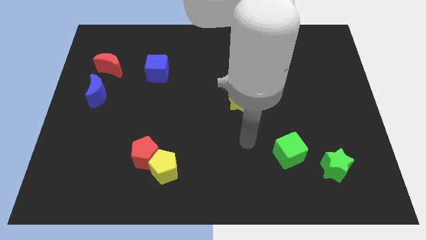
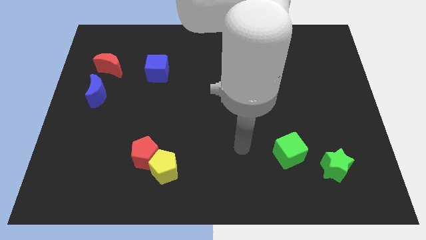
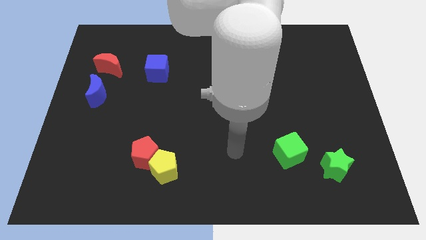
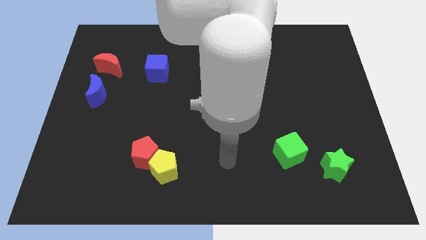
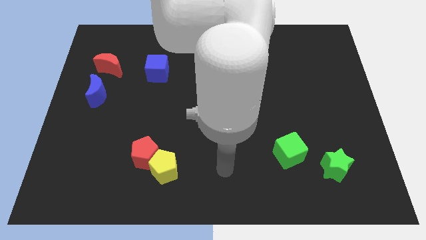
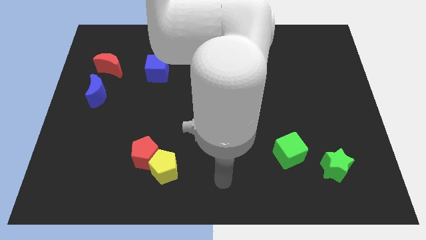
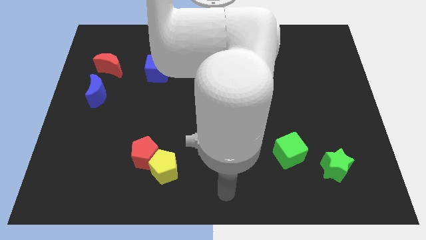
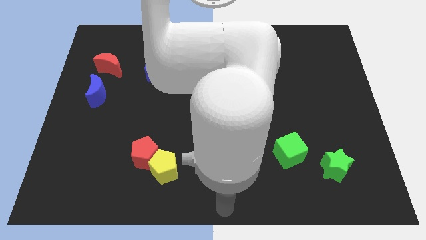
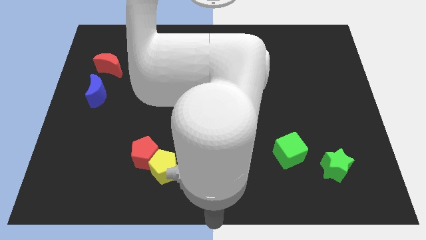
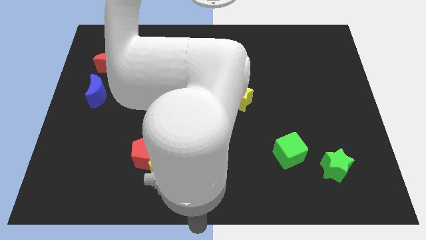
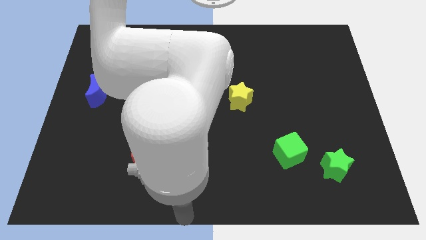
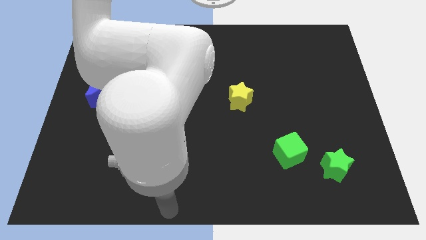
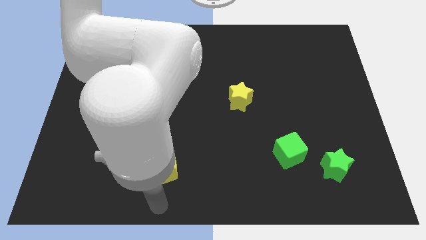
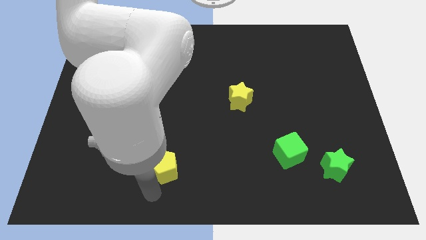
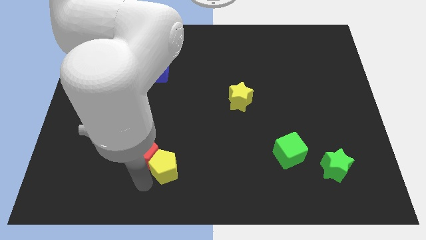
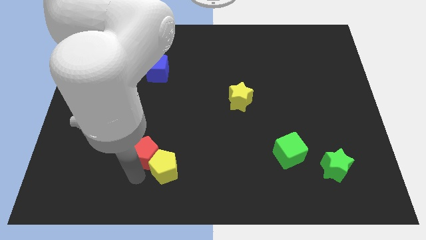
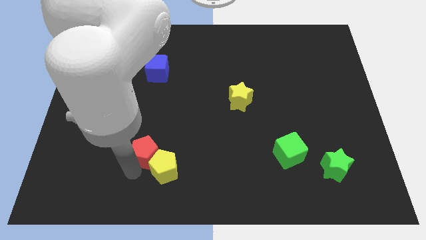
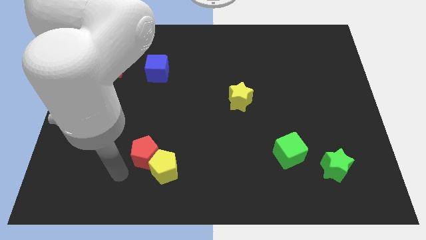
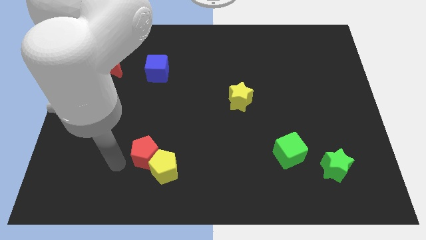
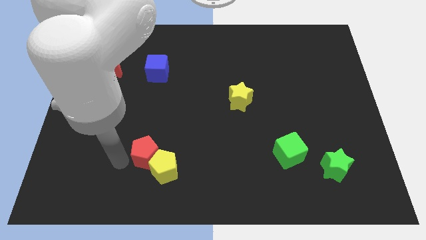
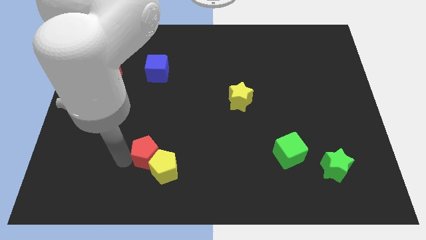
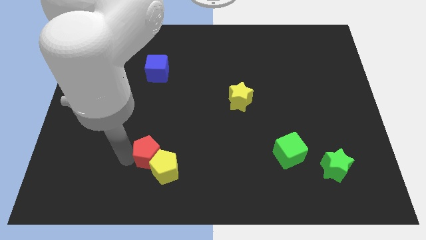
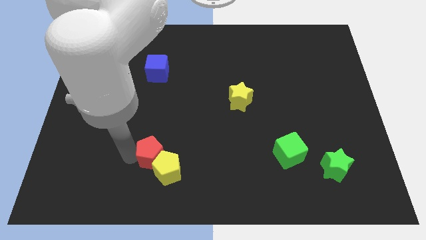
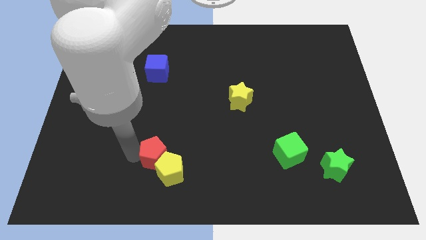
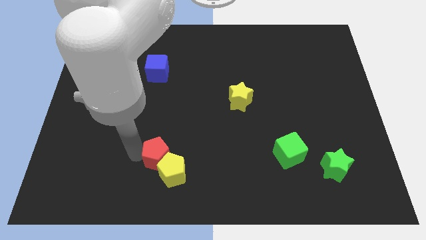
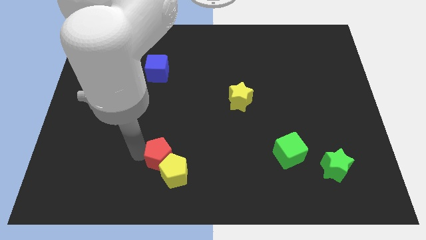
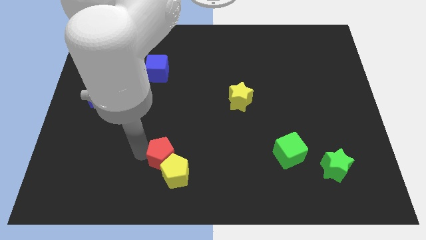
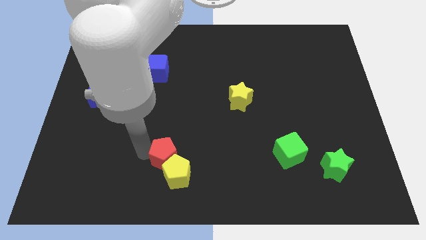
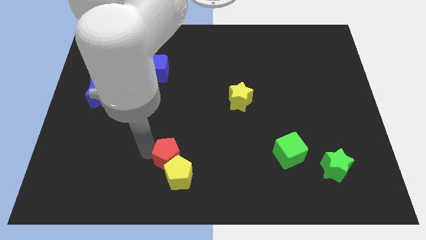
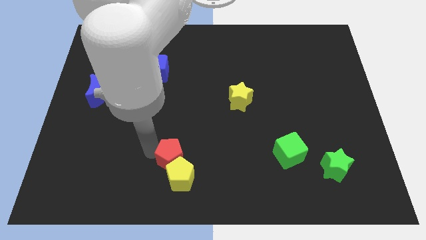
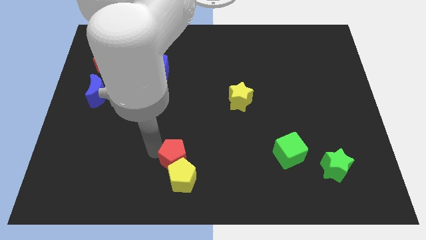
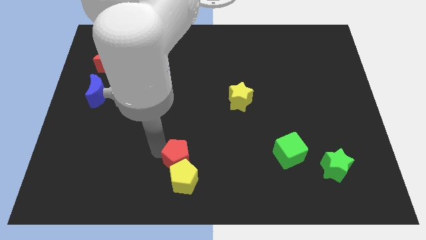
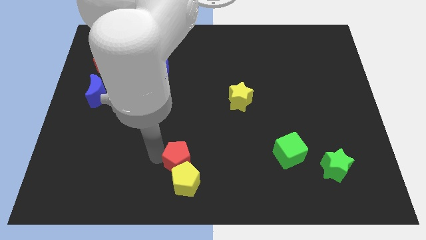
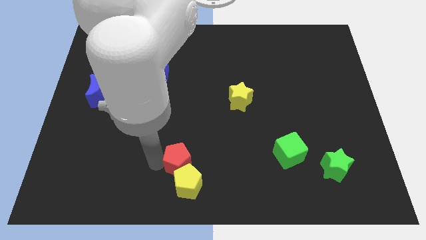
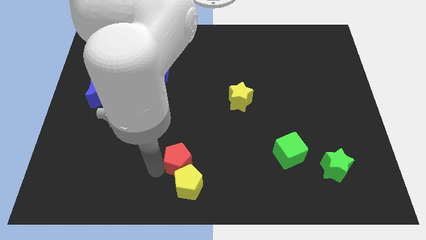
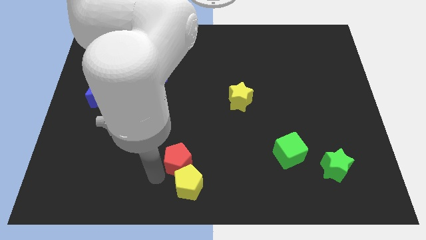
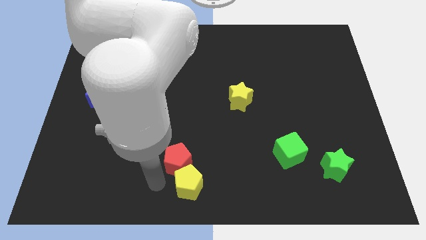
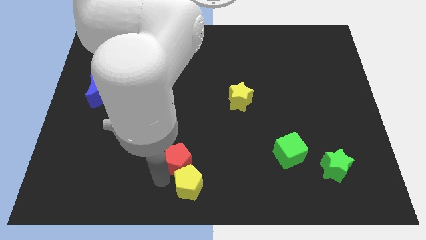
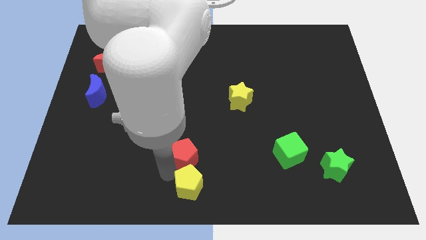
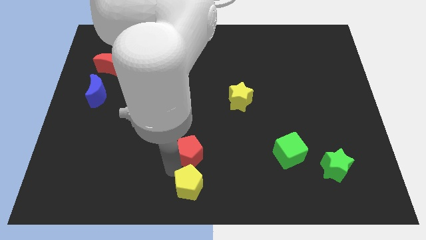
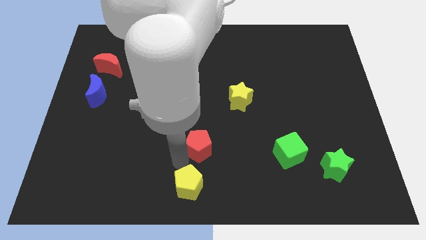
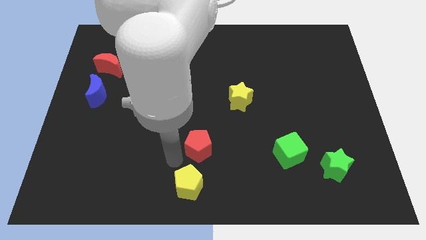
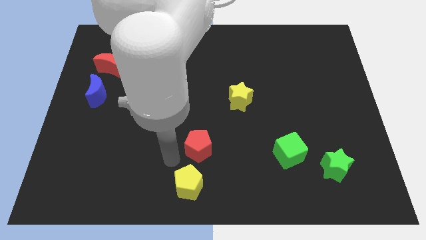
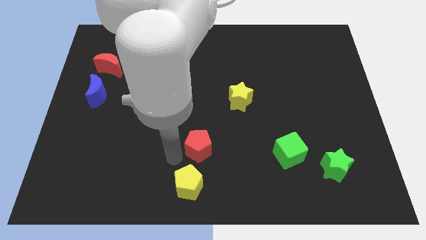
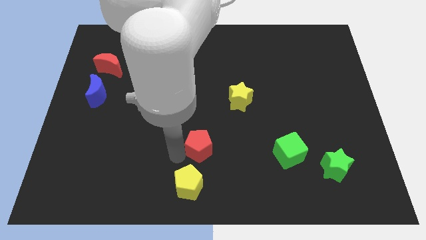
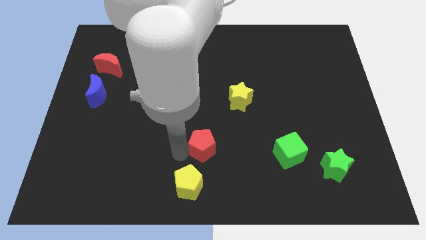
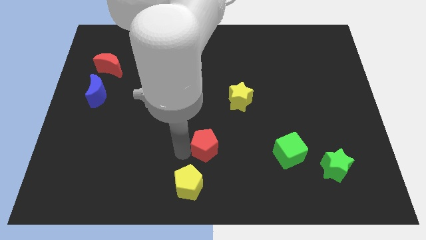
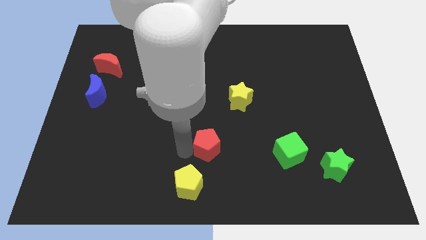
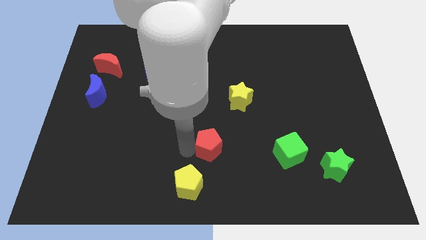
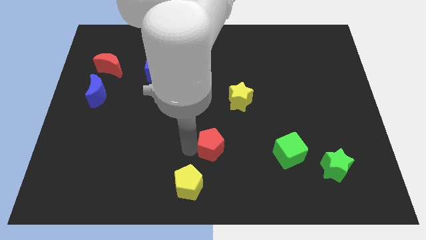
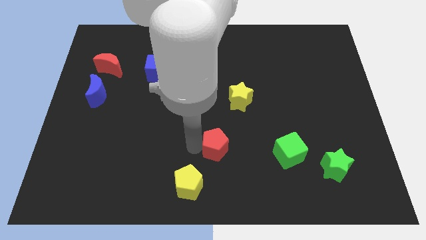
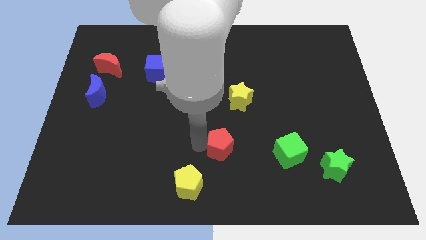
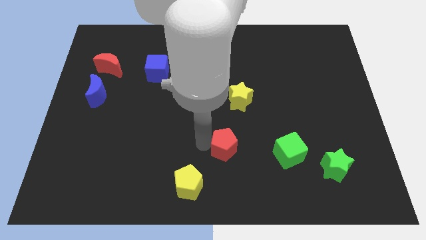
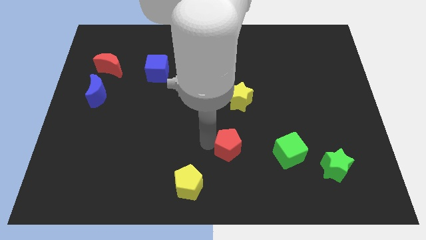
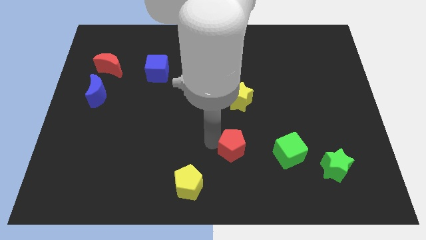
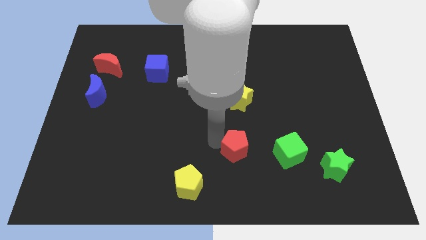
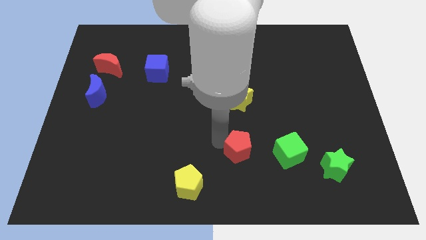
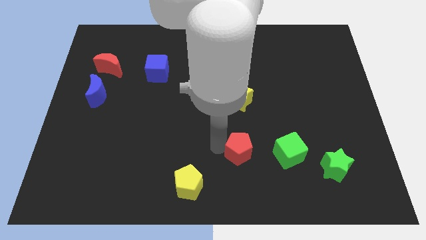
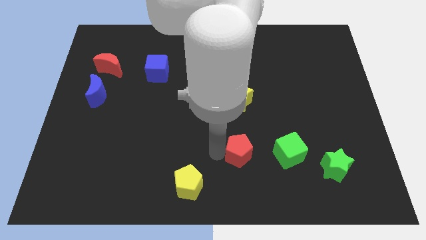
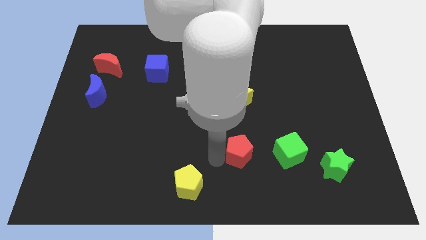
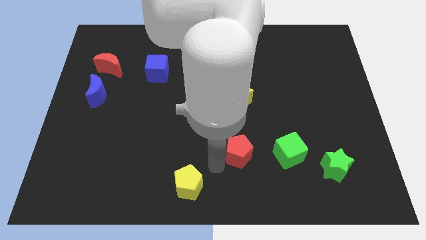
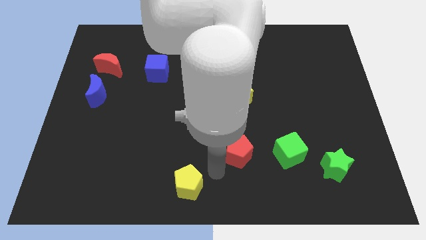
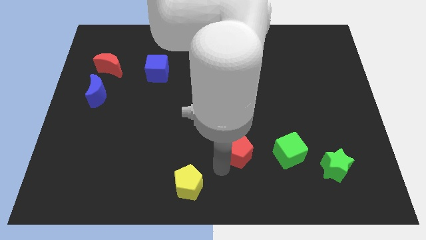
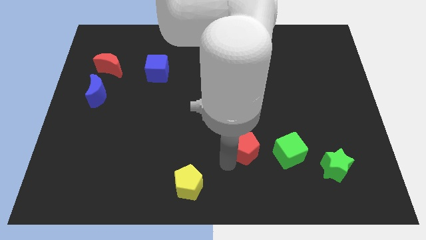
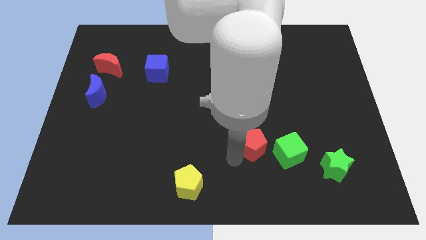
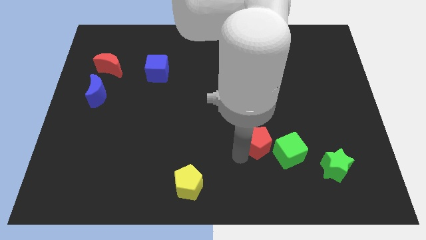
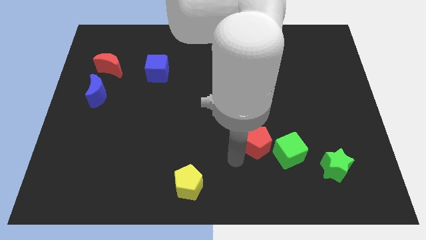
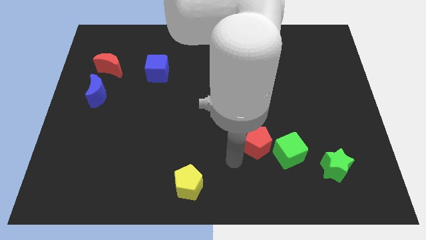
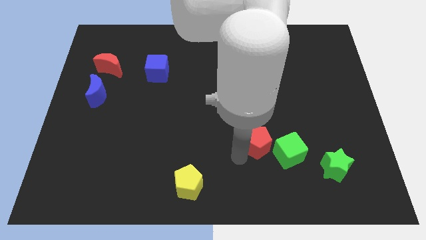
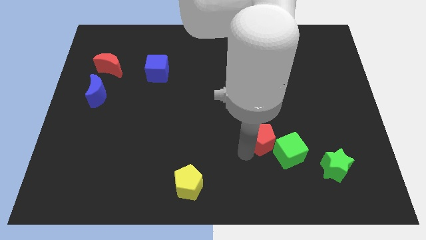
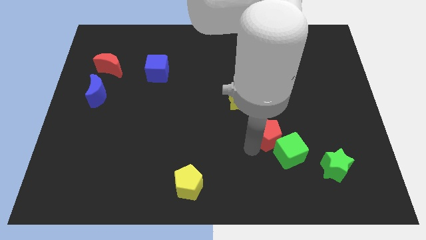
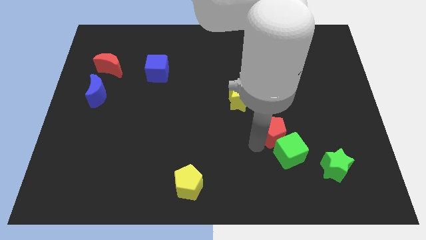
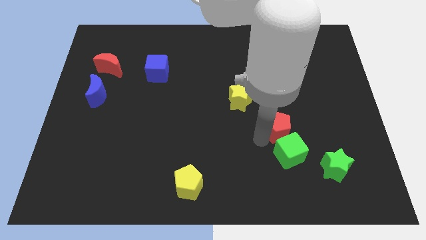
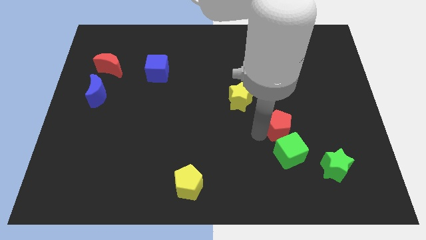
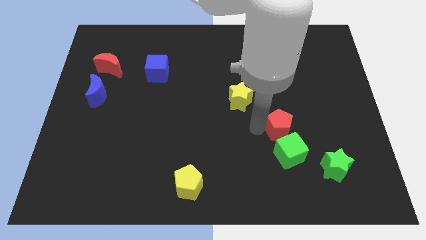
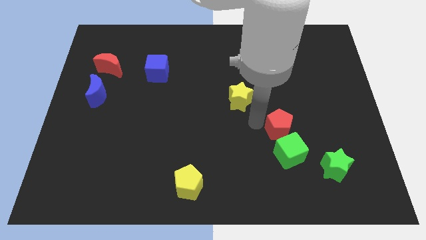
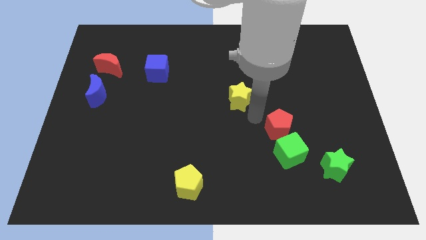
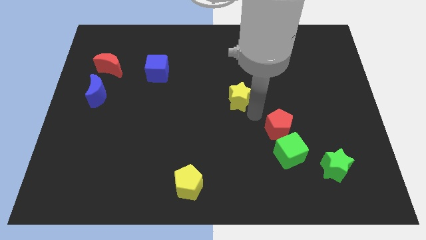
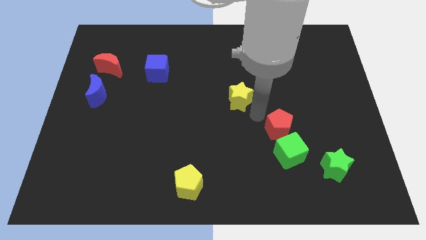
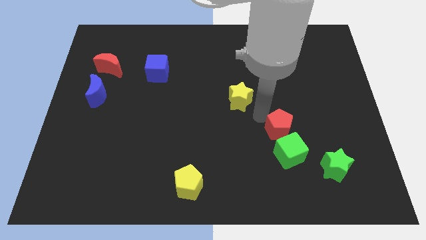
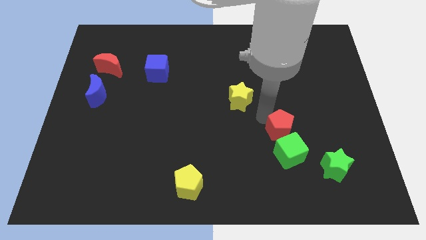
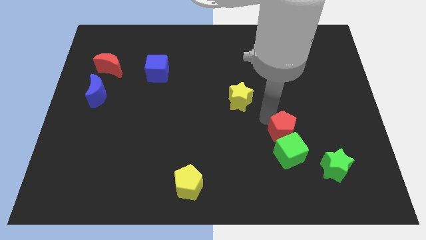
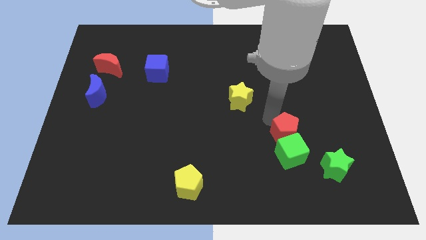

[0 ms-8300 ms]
push the red pentagon diagonally up and to the left of the green star
